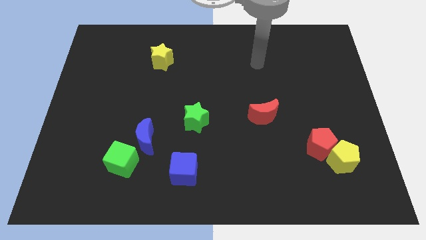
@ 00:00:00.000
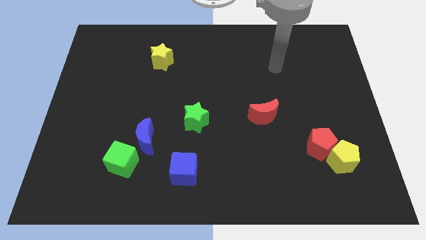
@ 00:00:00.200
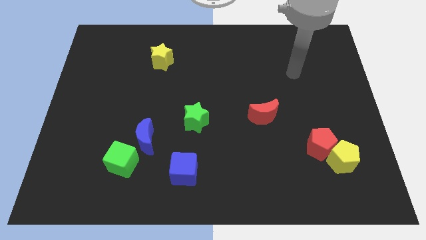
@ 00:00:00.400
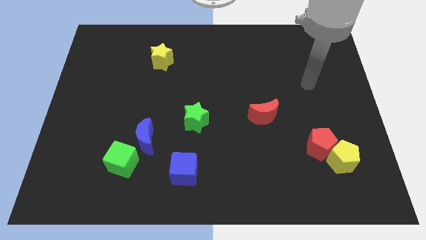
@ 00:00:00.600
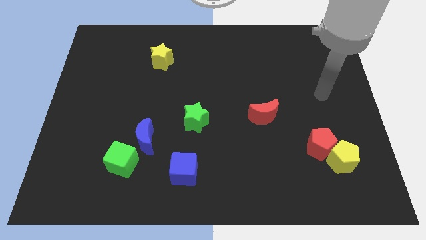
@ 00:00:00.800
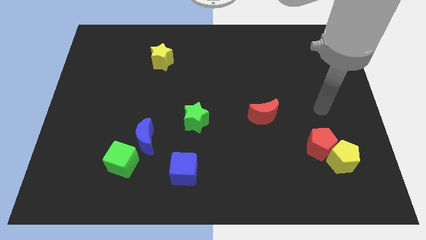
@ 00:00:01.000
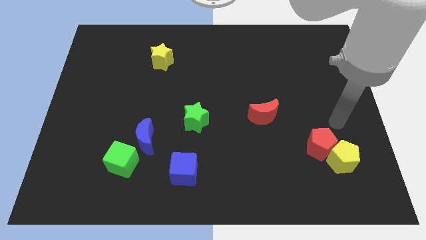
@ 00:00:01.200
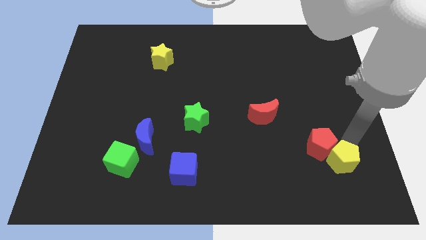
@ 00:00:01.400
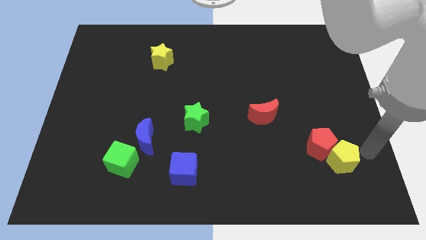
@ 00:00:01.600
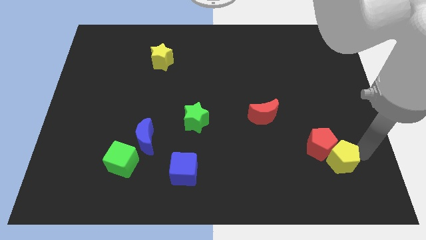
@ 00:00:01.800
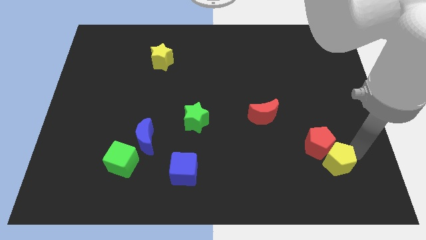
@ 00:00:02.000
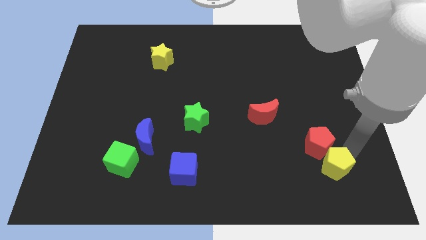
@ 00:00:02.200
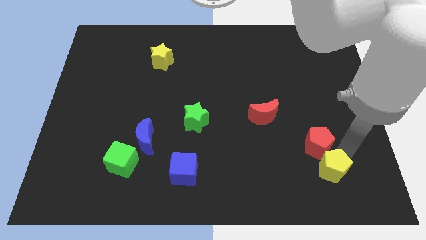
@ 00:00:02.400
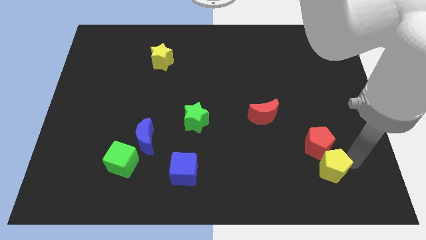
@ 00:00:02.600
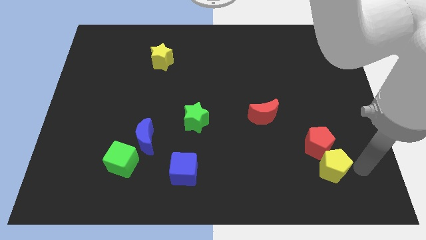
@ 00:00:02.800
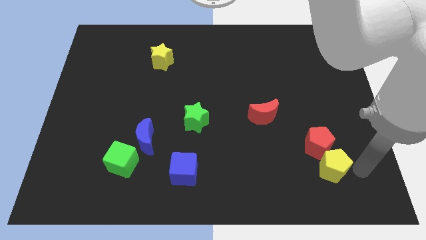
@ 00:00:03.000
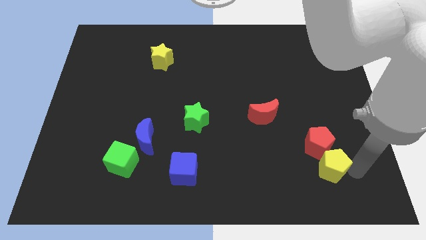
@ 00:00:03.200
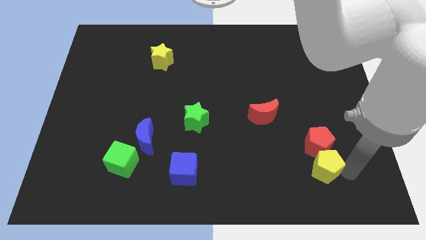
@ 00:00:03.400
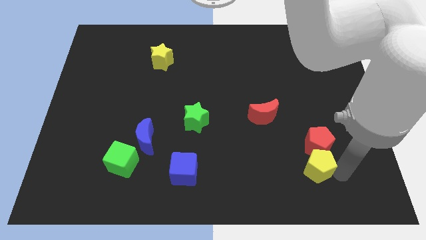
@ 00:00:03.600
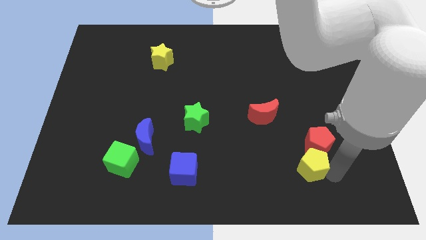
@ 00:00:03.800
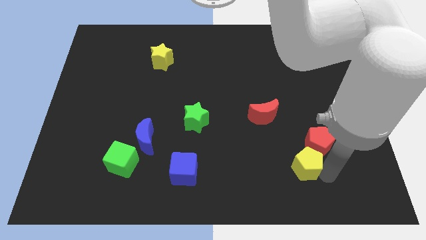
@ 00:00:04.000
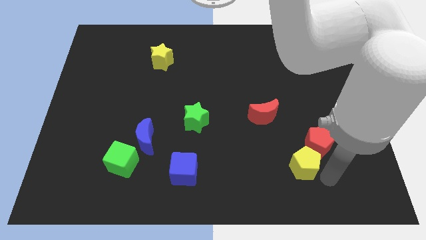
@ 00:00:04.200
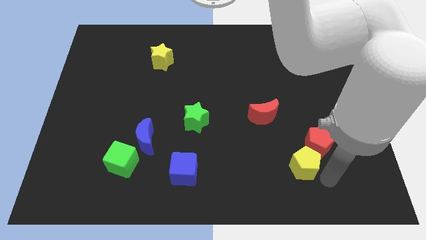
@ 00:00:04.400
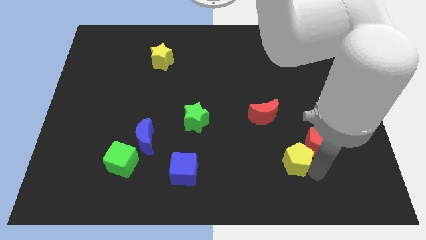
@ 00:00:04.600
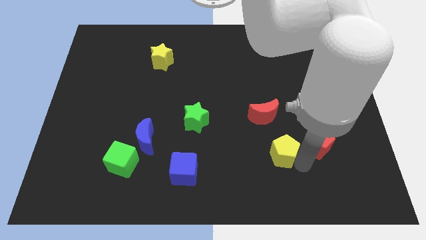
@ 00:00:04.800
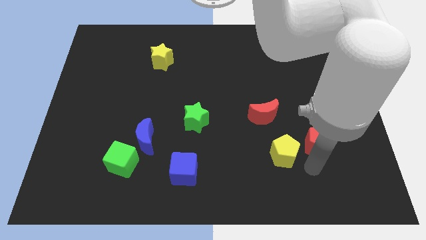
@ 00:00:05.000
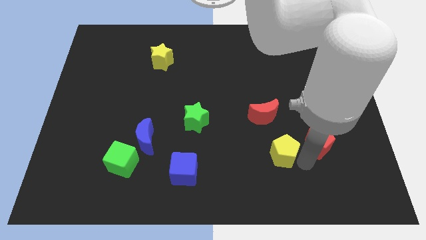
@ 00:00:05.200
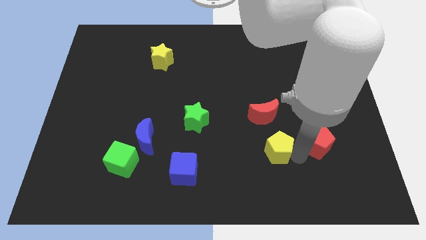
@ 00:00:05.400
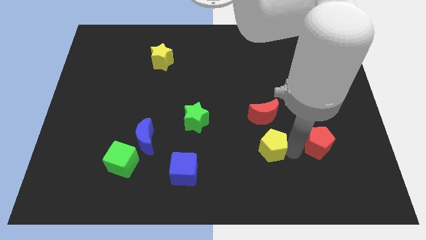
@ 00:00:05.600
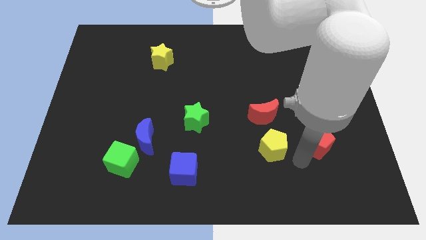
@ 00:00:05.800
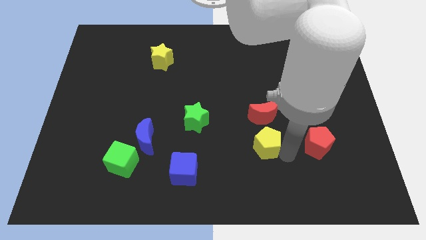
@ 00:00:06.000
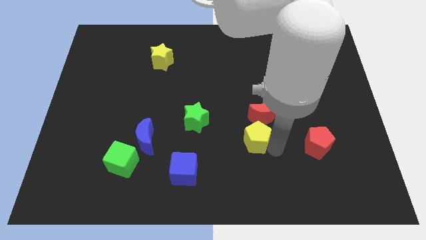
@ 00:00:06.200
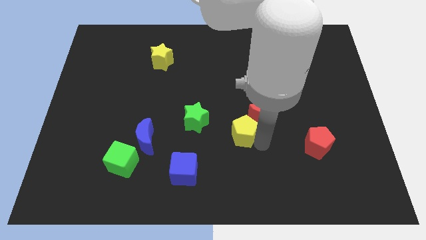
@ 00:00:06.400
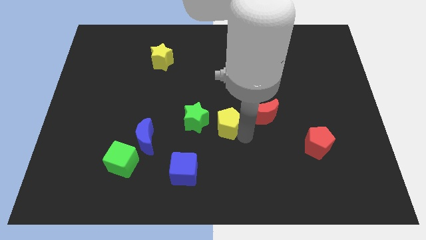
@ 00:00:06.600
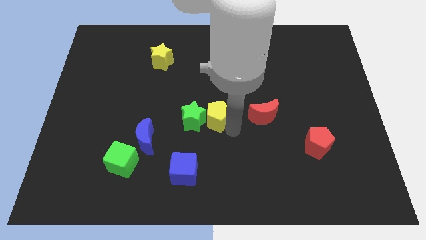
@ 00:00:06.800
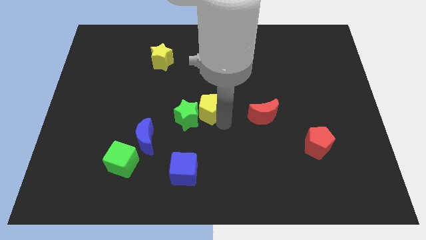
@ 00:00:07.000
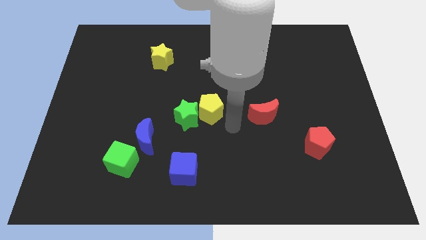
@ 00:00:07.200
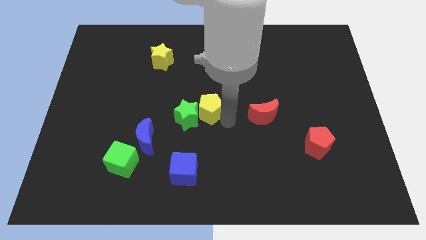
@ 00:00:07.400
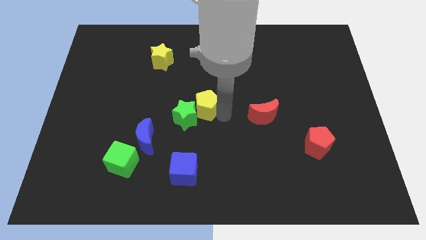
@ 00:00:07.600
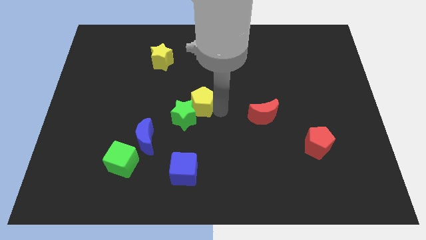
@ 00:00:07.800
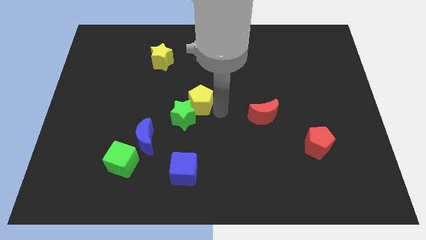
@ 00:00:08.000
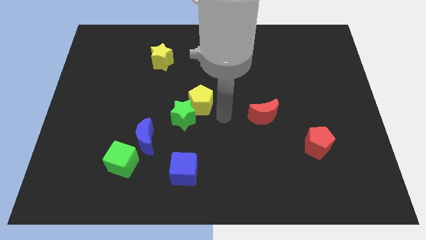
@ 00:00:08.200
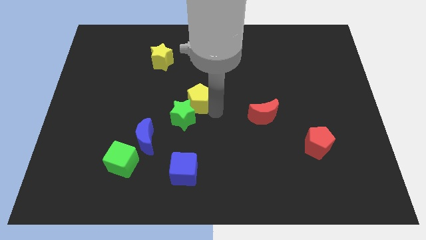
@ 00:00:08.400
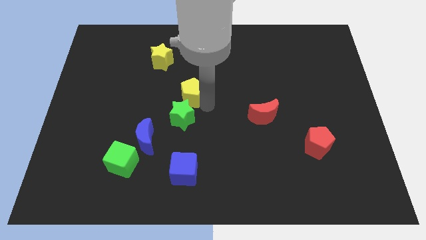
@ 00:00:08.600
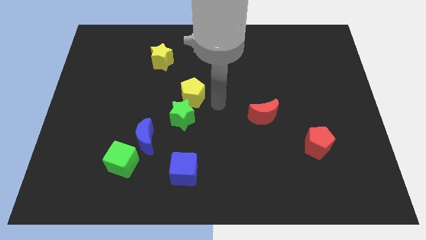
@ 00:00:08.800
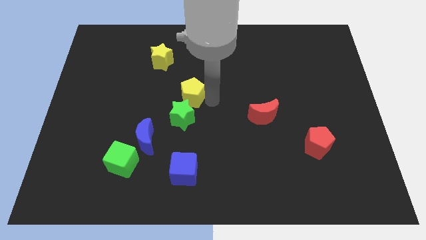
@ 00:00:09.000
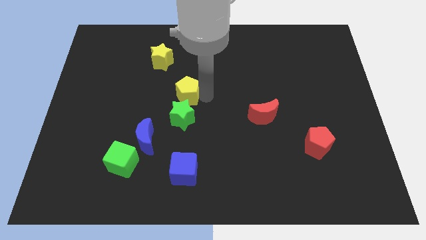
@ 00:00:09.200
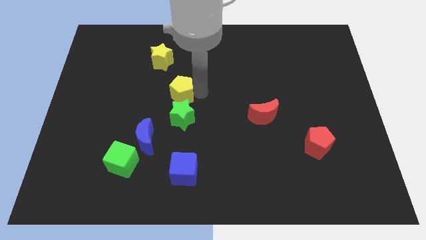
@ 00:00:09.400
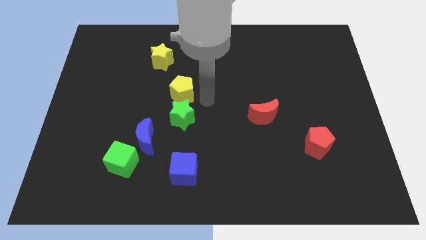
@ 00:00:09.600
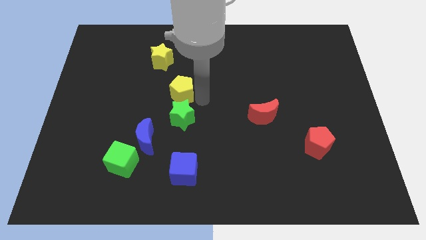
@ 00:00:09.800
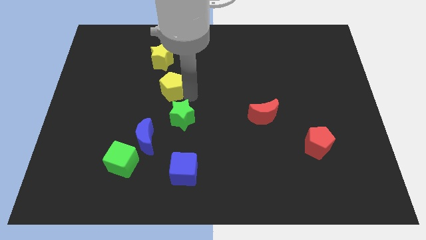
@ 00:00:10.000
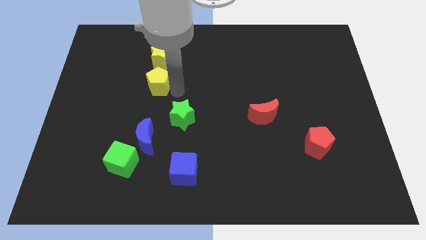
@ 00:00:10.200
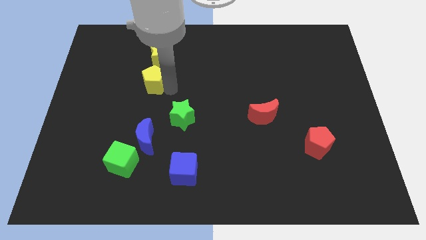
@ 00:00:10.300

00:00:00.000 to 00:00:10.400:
put the yellow pentagon to the bottom left of the yellow star

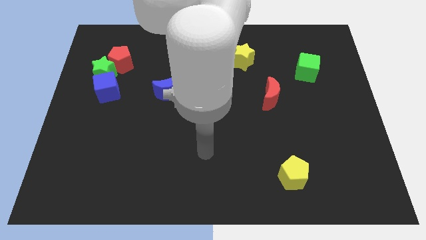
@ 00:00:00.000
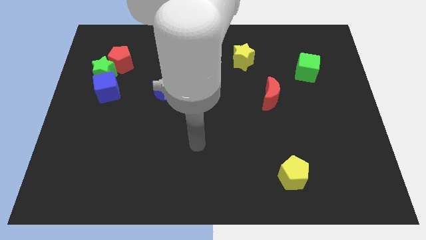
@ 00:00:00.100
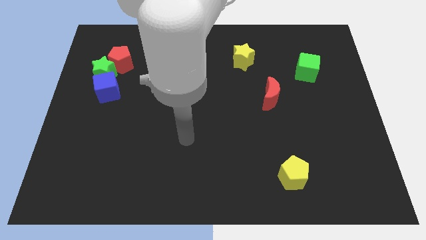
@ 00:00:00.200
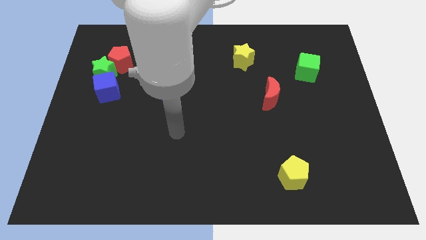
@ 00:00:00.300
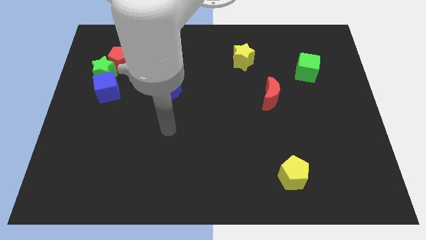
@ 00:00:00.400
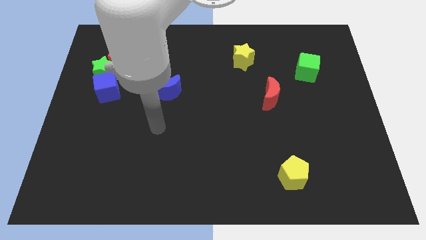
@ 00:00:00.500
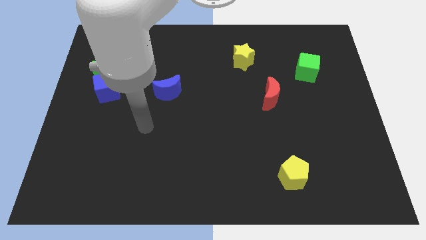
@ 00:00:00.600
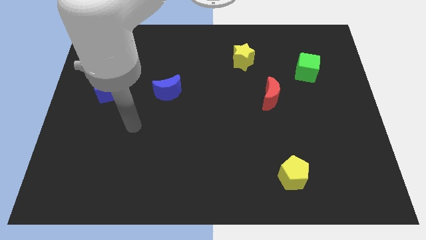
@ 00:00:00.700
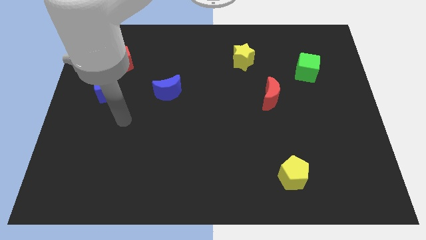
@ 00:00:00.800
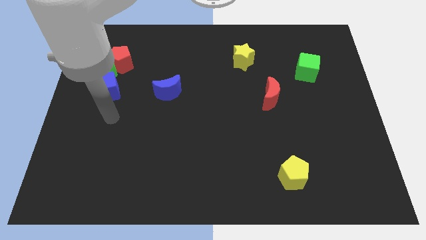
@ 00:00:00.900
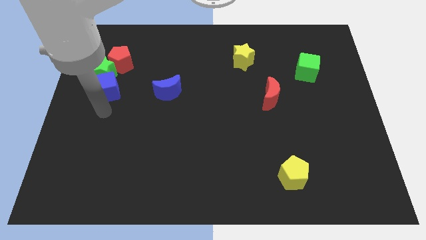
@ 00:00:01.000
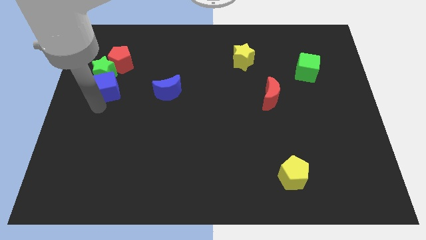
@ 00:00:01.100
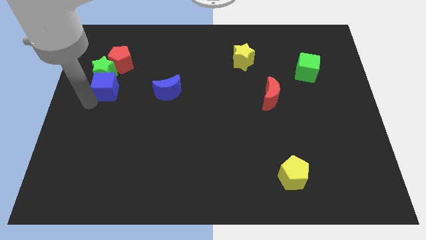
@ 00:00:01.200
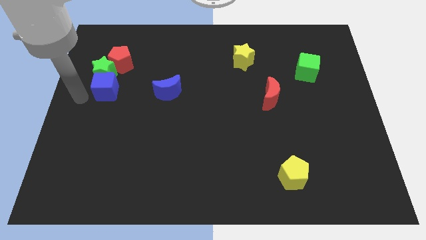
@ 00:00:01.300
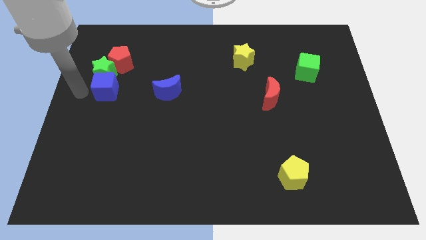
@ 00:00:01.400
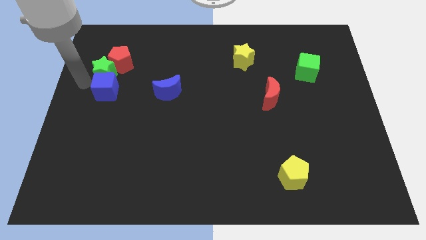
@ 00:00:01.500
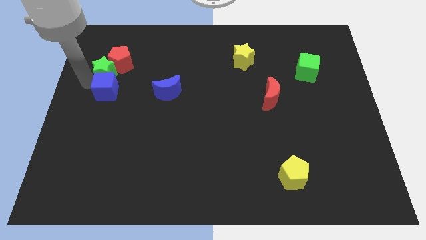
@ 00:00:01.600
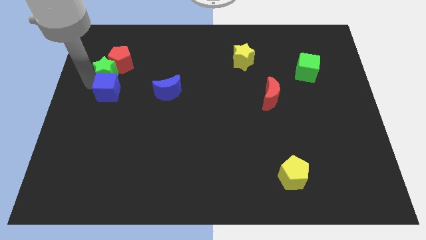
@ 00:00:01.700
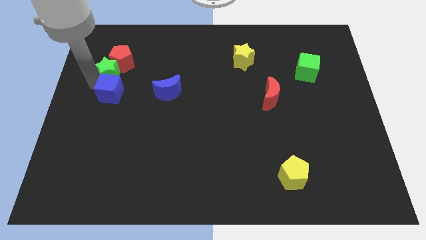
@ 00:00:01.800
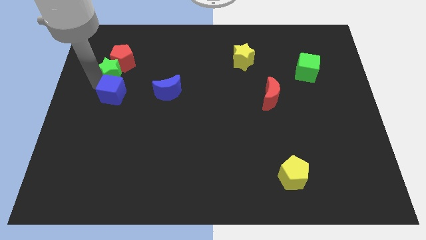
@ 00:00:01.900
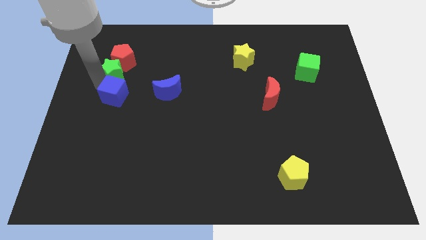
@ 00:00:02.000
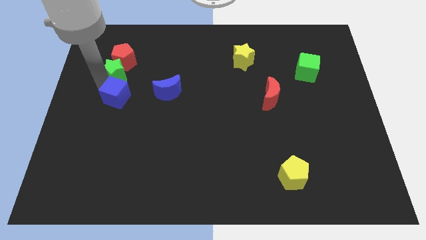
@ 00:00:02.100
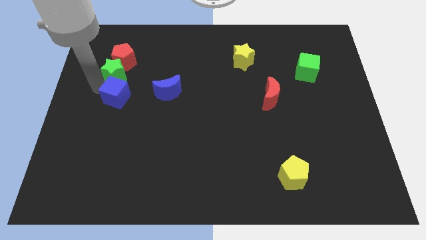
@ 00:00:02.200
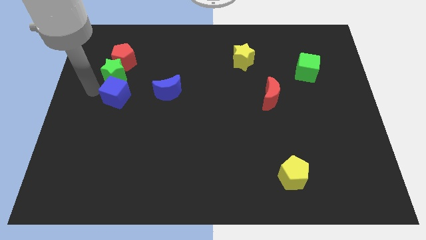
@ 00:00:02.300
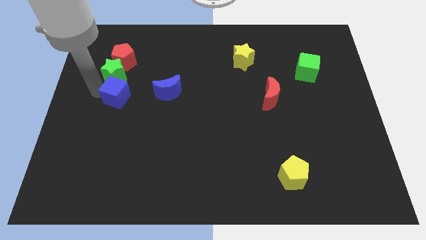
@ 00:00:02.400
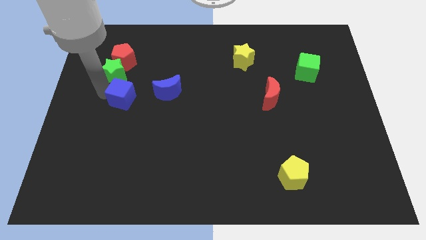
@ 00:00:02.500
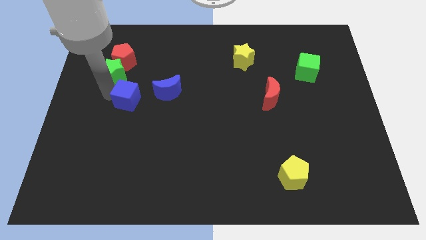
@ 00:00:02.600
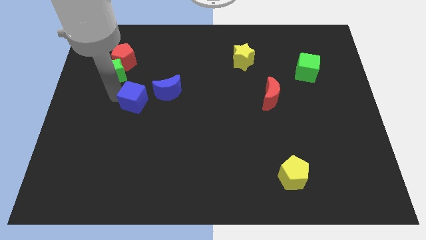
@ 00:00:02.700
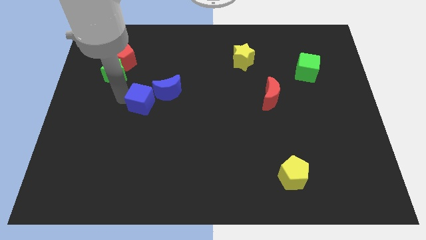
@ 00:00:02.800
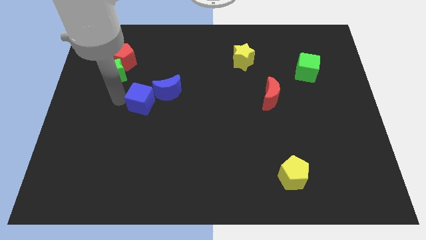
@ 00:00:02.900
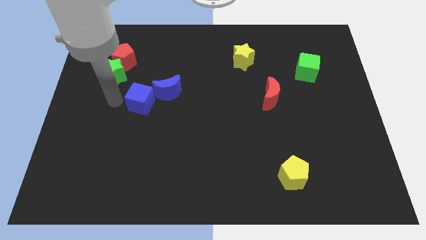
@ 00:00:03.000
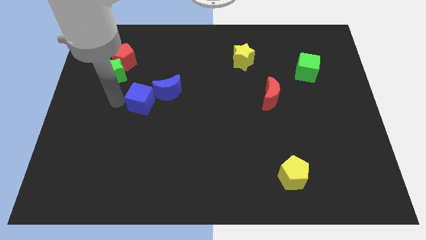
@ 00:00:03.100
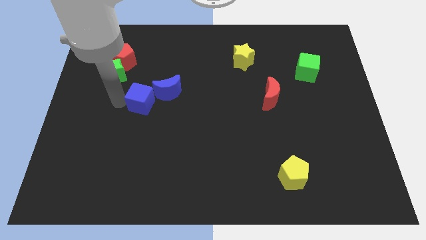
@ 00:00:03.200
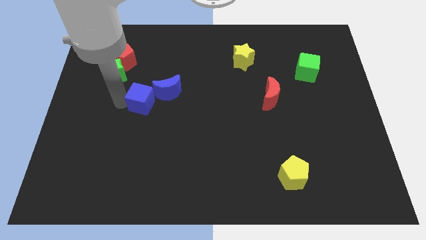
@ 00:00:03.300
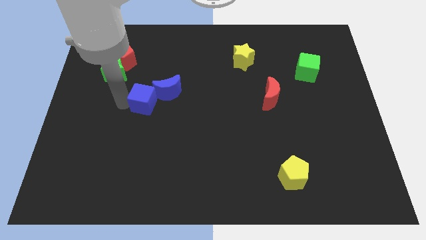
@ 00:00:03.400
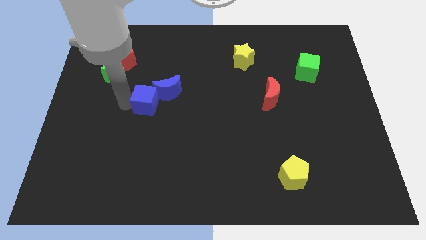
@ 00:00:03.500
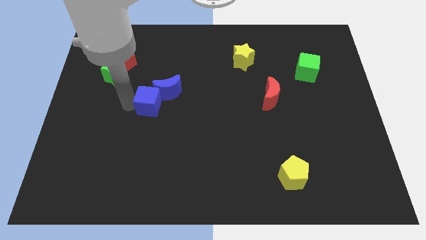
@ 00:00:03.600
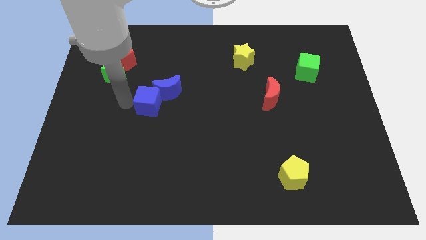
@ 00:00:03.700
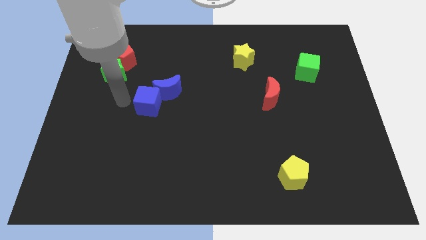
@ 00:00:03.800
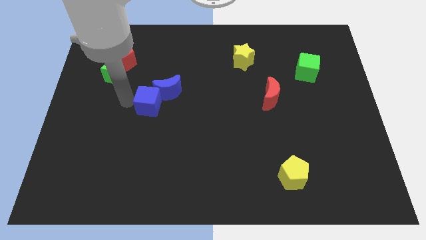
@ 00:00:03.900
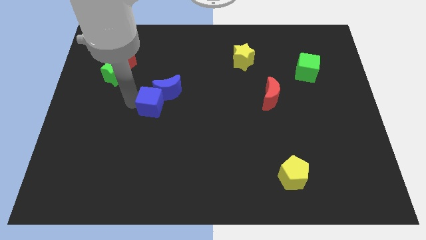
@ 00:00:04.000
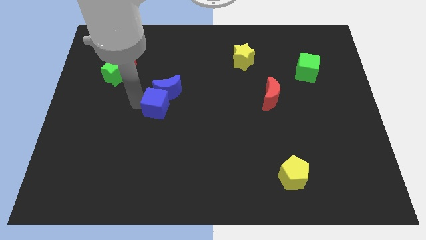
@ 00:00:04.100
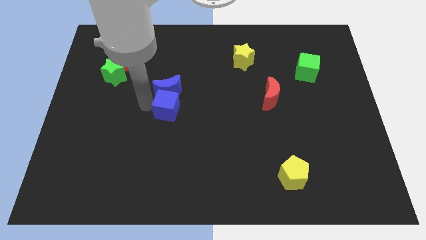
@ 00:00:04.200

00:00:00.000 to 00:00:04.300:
put the blue cube diagonally down and to the right of the blue moon
